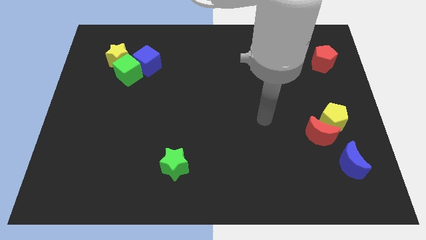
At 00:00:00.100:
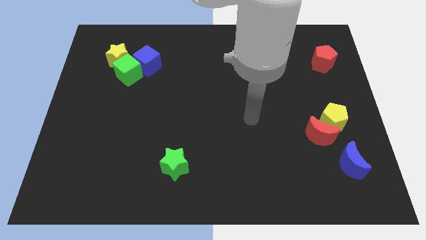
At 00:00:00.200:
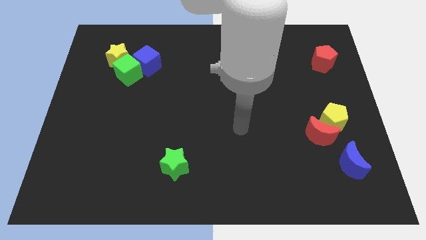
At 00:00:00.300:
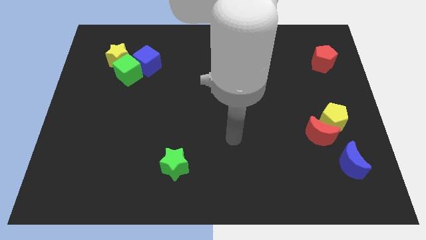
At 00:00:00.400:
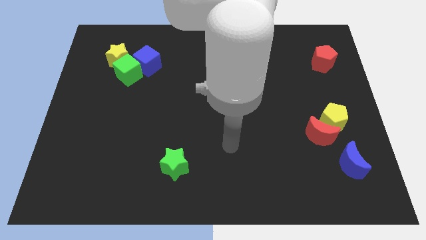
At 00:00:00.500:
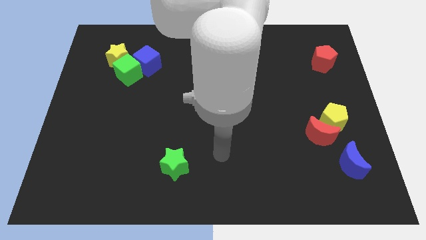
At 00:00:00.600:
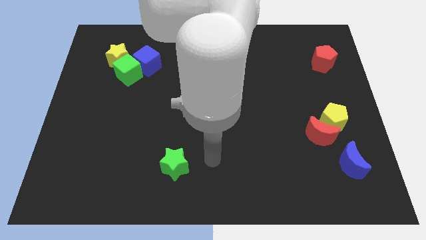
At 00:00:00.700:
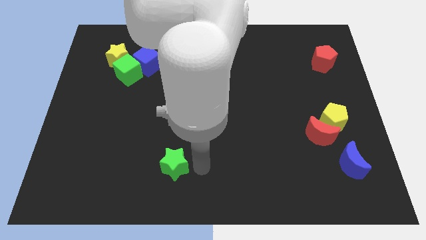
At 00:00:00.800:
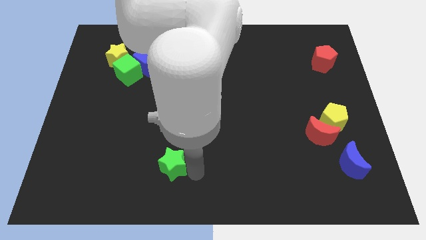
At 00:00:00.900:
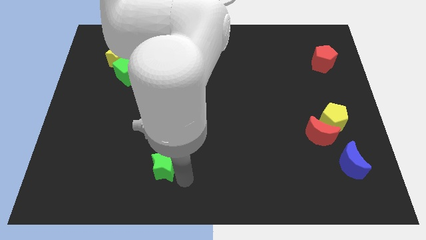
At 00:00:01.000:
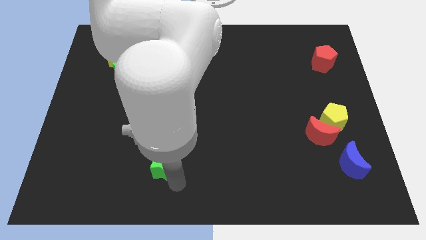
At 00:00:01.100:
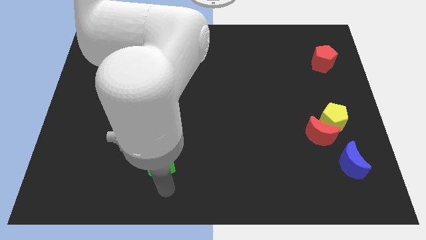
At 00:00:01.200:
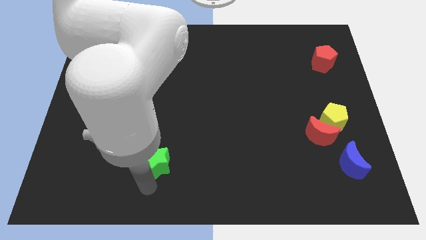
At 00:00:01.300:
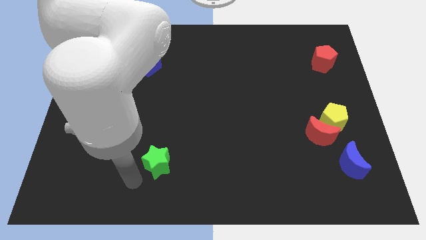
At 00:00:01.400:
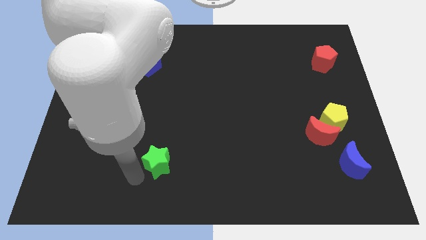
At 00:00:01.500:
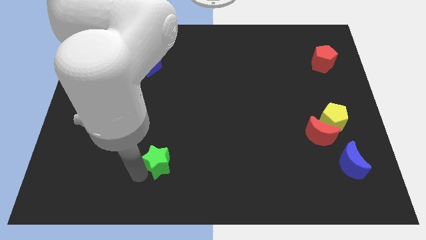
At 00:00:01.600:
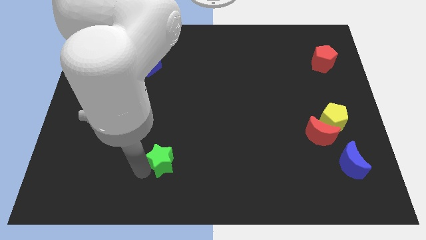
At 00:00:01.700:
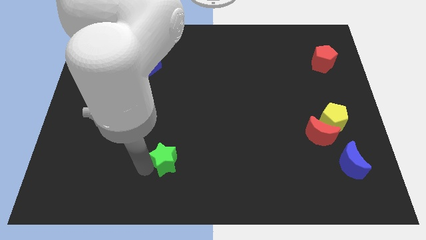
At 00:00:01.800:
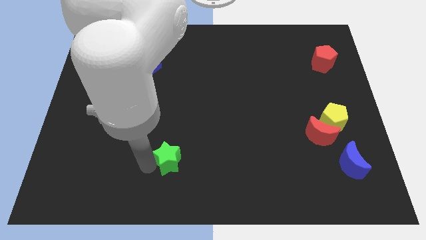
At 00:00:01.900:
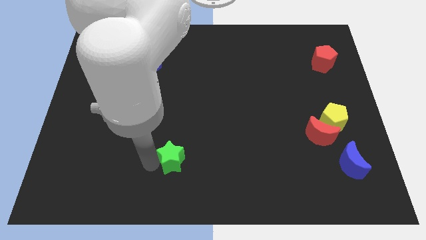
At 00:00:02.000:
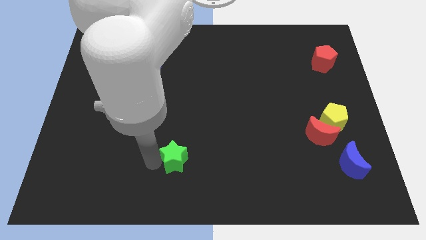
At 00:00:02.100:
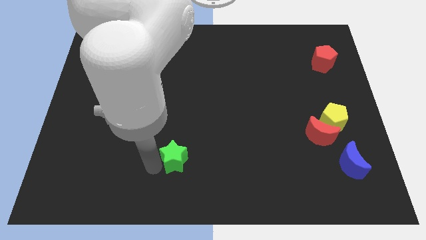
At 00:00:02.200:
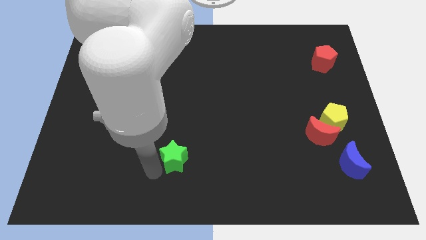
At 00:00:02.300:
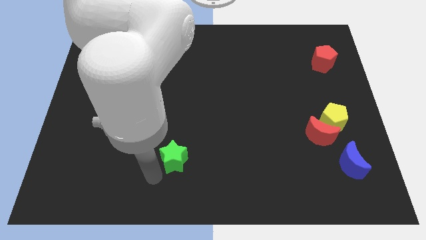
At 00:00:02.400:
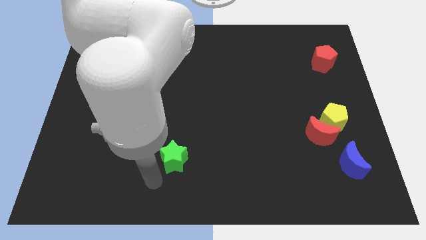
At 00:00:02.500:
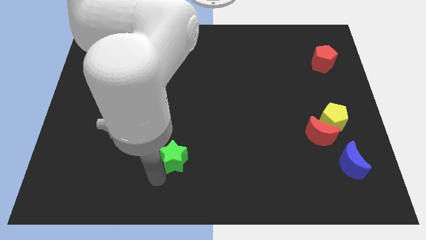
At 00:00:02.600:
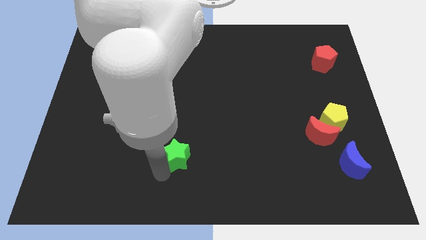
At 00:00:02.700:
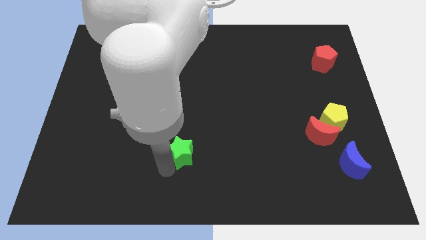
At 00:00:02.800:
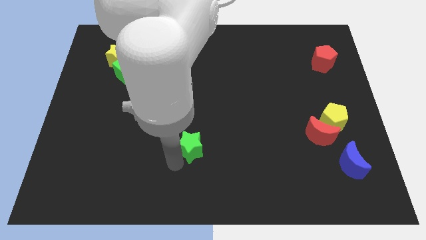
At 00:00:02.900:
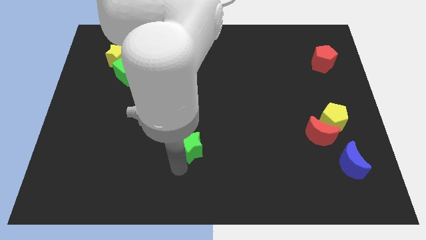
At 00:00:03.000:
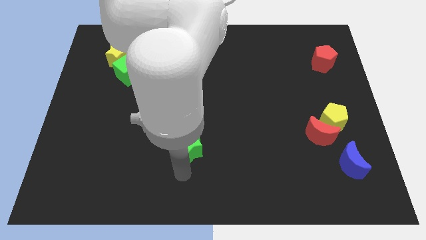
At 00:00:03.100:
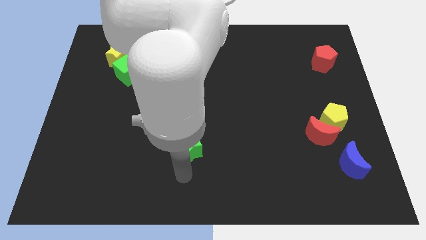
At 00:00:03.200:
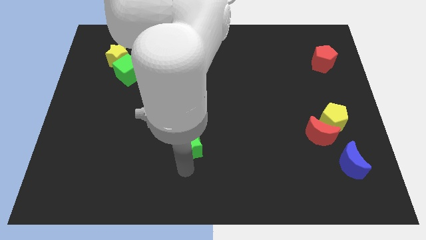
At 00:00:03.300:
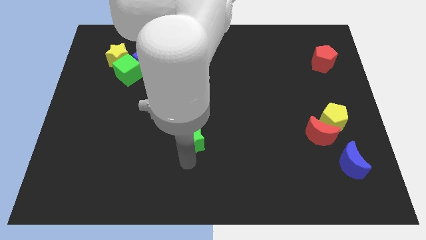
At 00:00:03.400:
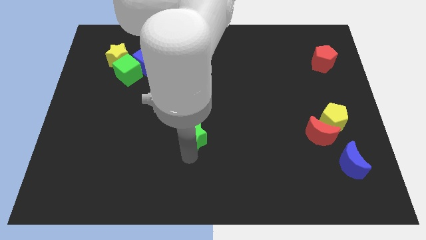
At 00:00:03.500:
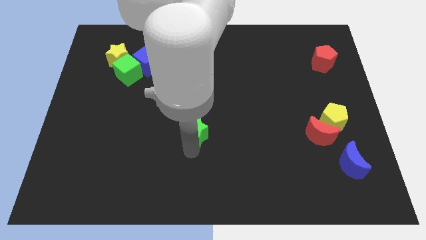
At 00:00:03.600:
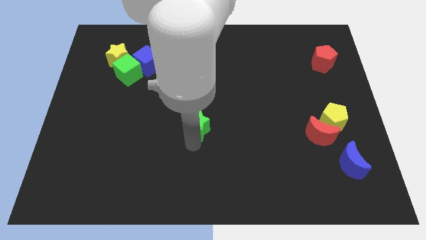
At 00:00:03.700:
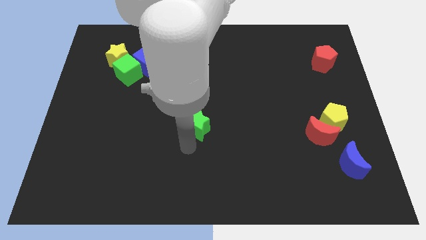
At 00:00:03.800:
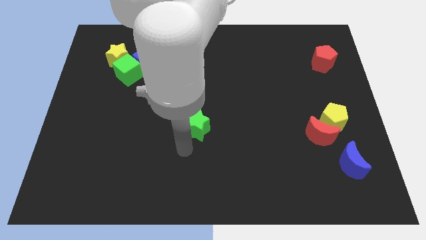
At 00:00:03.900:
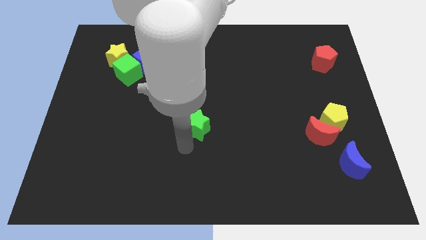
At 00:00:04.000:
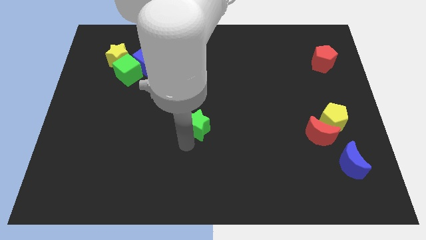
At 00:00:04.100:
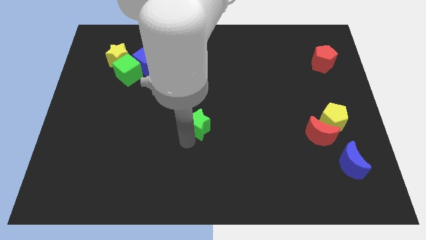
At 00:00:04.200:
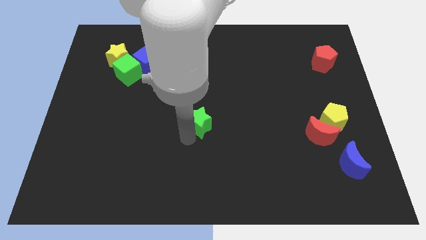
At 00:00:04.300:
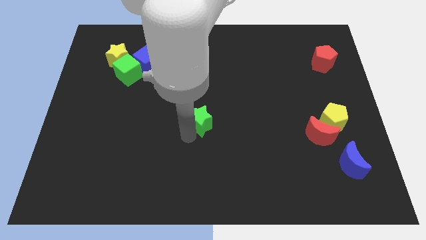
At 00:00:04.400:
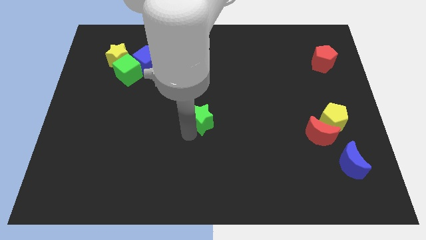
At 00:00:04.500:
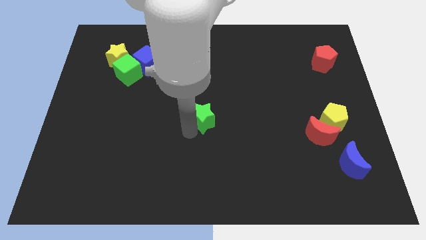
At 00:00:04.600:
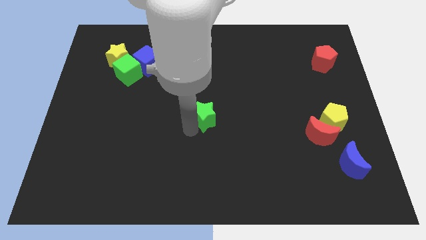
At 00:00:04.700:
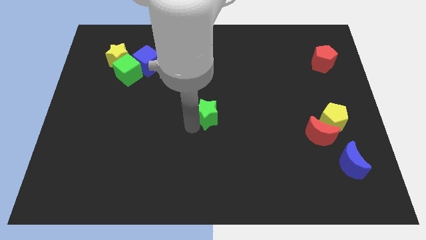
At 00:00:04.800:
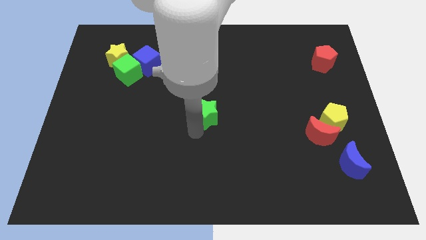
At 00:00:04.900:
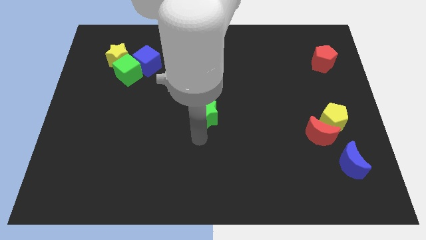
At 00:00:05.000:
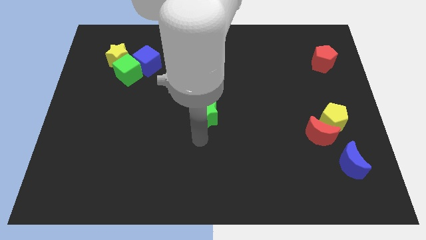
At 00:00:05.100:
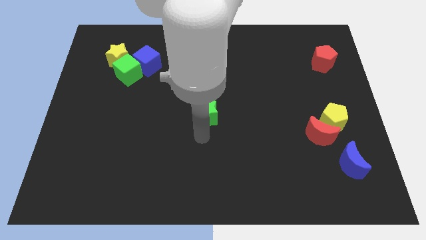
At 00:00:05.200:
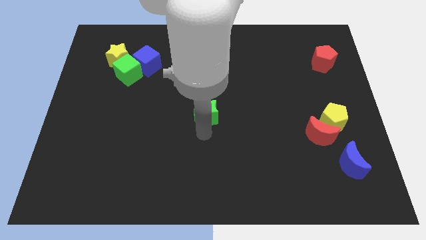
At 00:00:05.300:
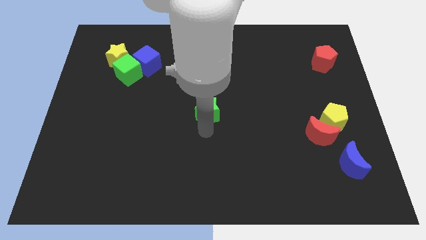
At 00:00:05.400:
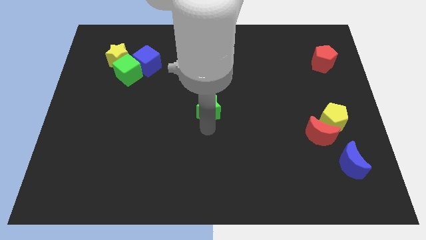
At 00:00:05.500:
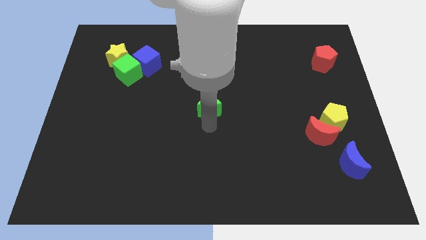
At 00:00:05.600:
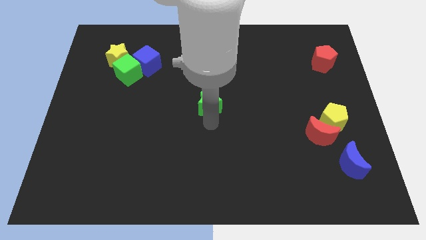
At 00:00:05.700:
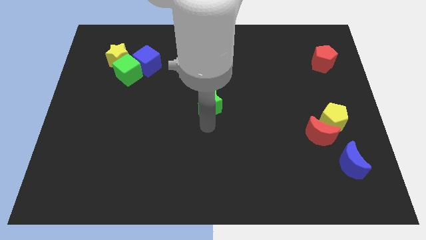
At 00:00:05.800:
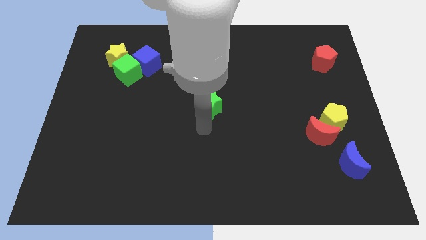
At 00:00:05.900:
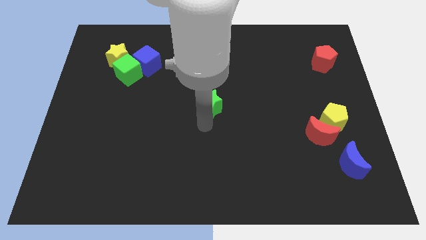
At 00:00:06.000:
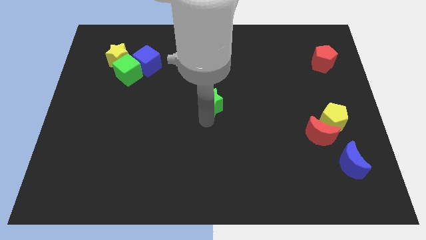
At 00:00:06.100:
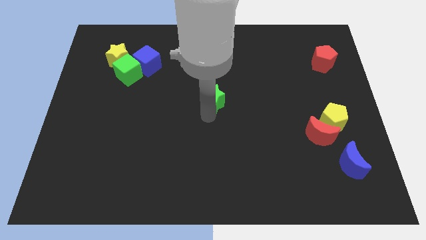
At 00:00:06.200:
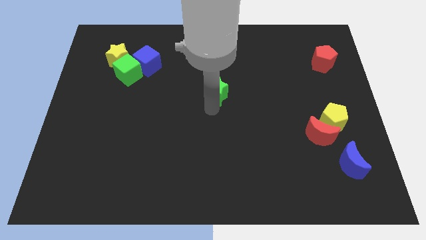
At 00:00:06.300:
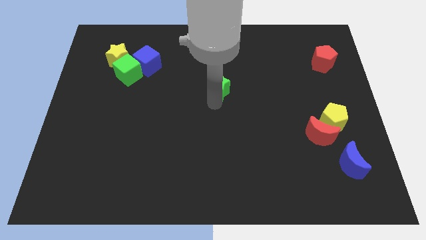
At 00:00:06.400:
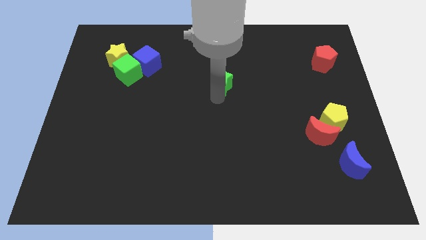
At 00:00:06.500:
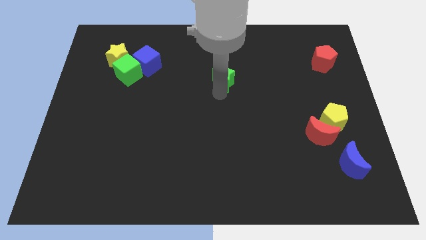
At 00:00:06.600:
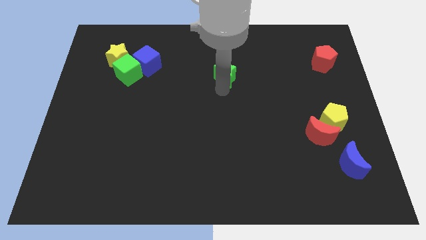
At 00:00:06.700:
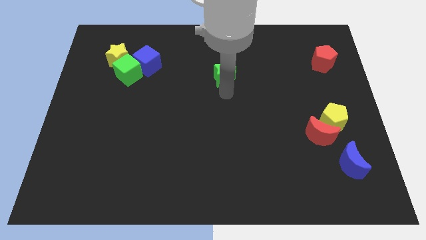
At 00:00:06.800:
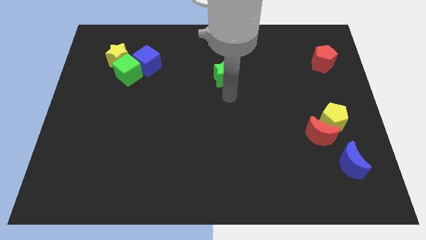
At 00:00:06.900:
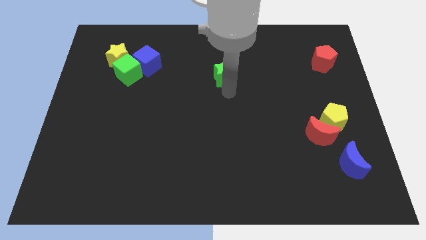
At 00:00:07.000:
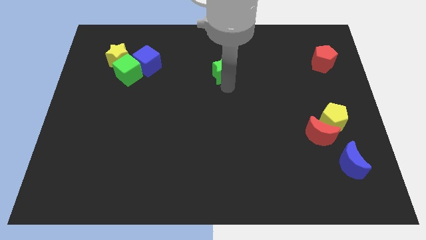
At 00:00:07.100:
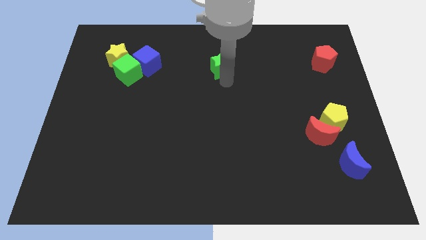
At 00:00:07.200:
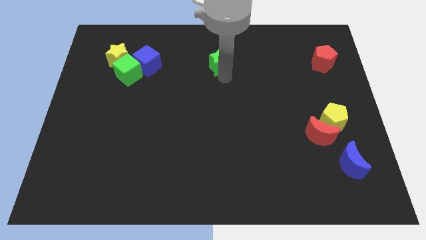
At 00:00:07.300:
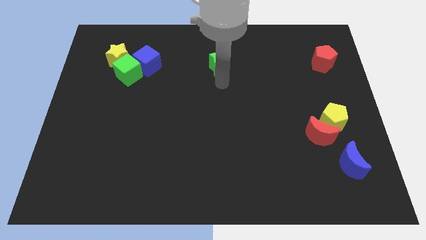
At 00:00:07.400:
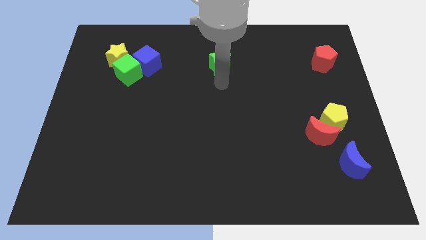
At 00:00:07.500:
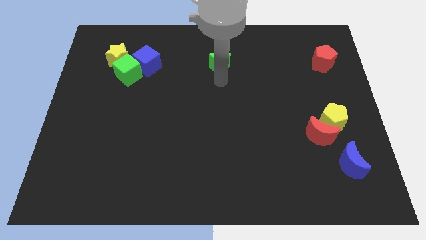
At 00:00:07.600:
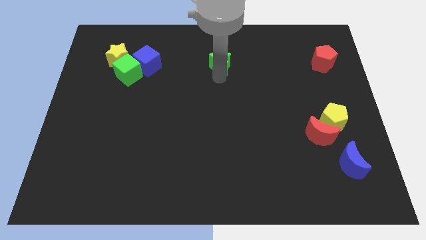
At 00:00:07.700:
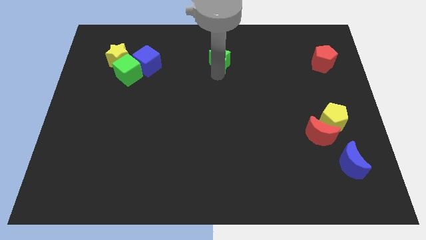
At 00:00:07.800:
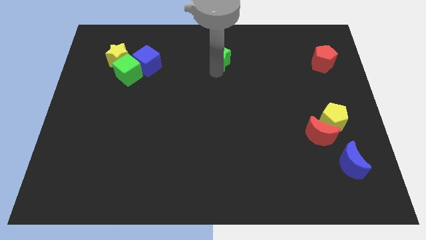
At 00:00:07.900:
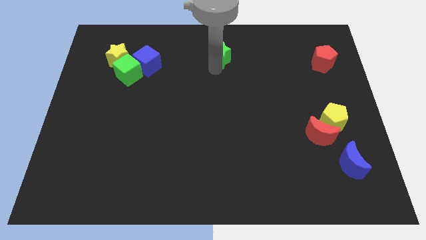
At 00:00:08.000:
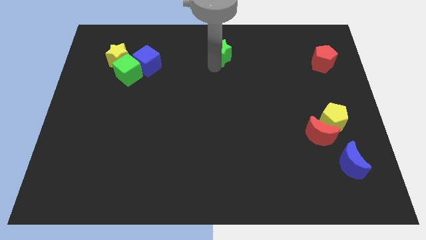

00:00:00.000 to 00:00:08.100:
push the green star to the top side
